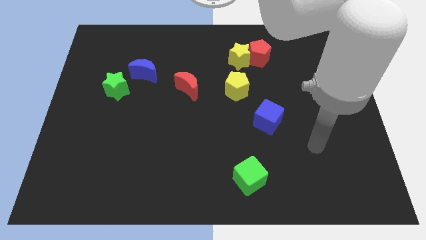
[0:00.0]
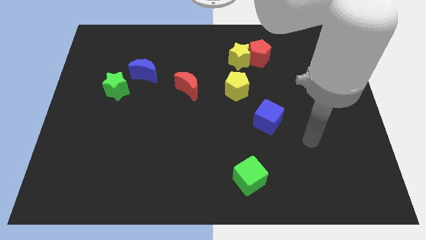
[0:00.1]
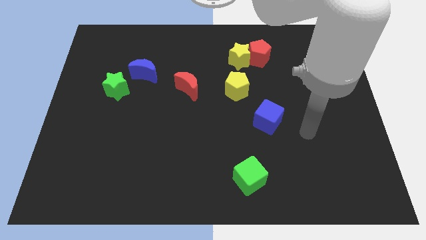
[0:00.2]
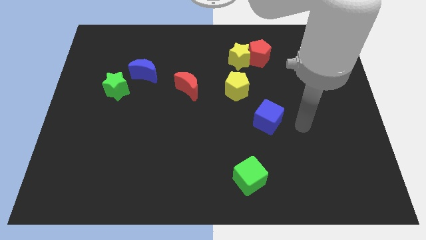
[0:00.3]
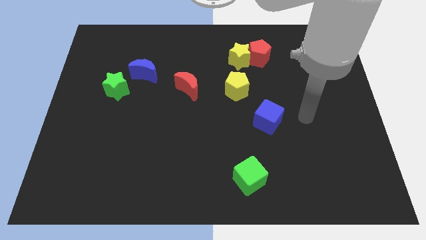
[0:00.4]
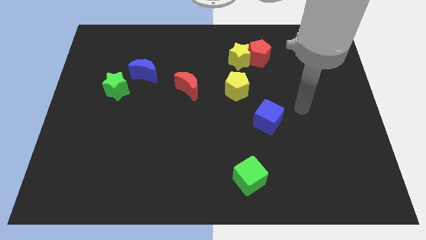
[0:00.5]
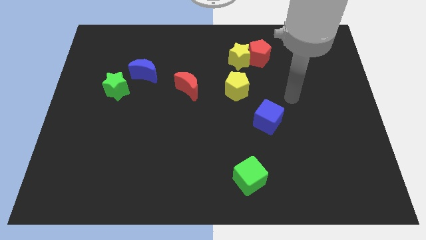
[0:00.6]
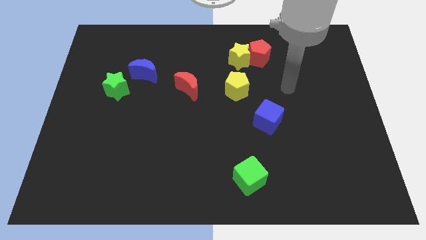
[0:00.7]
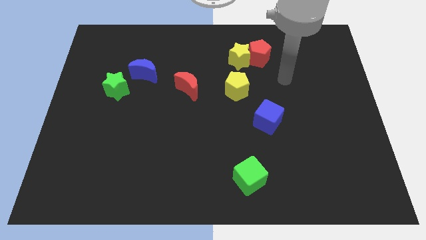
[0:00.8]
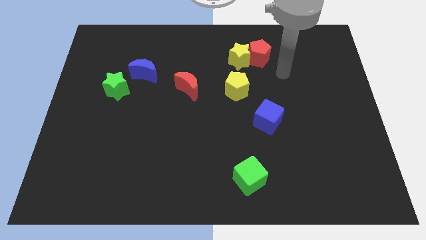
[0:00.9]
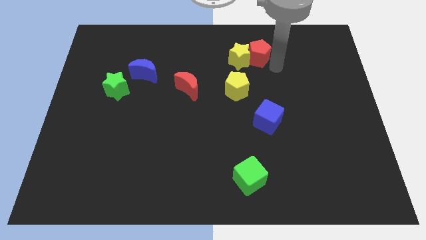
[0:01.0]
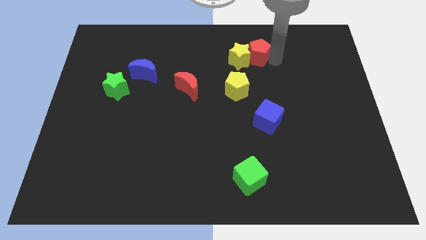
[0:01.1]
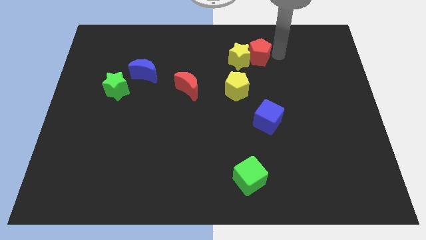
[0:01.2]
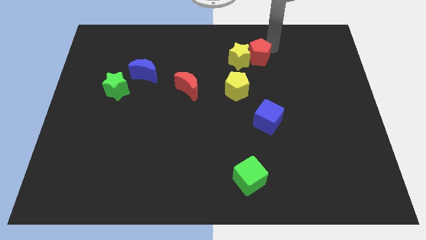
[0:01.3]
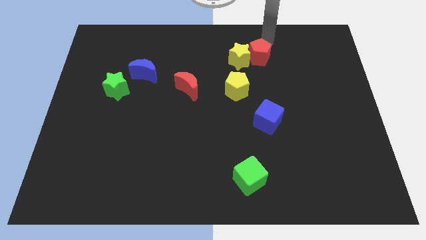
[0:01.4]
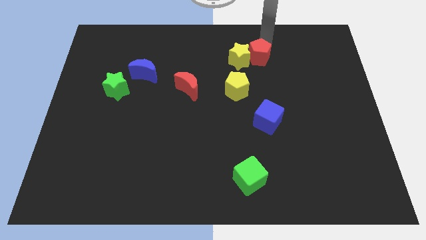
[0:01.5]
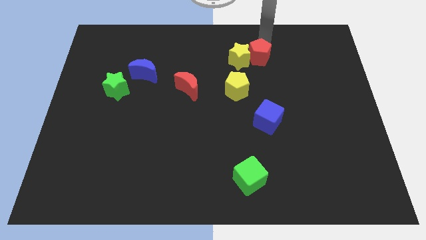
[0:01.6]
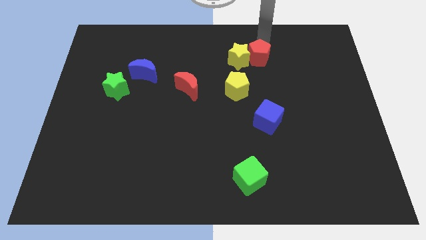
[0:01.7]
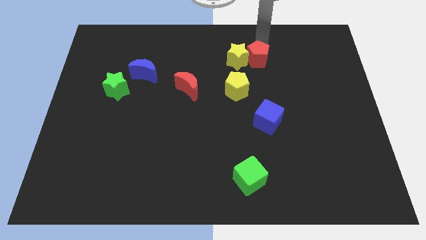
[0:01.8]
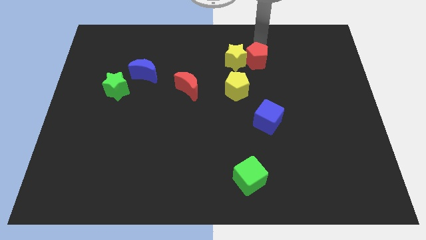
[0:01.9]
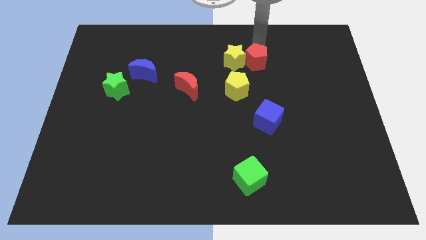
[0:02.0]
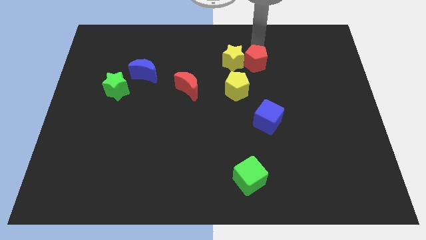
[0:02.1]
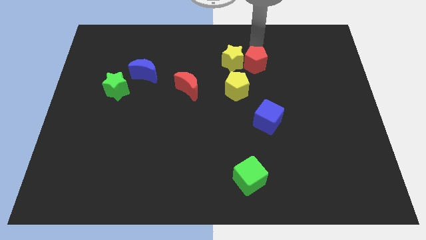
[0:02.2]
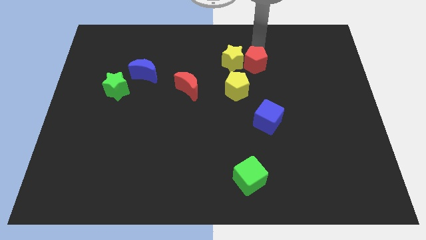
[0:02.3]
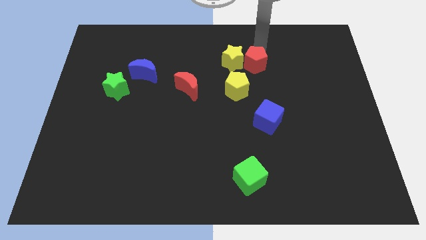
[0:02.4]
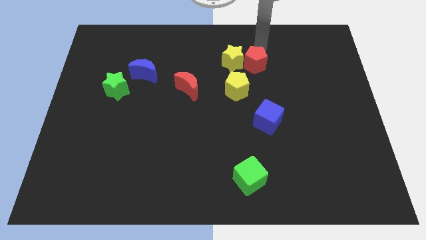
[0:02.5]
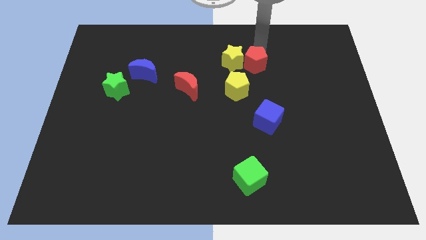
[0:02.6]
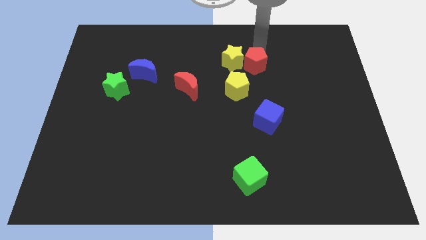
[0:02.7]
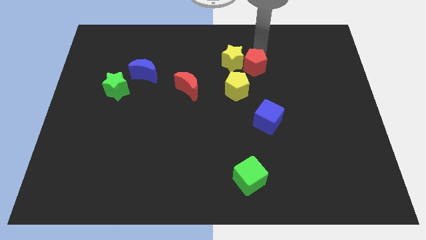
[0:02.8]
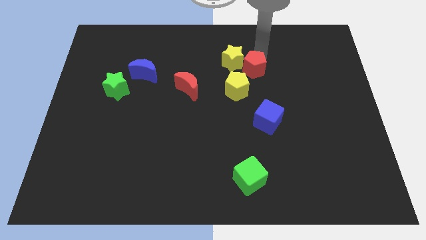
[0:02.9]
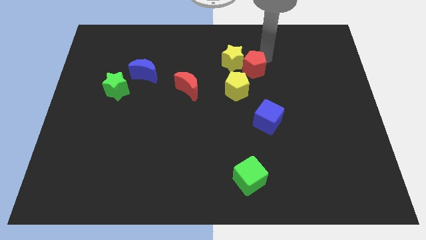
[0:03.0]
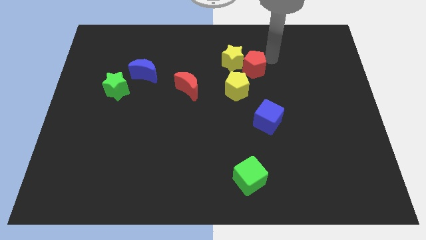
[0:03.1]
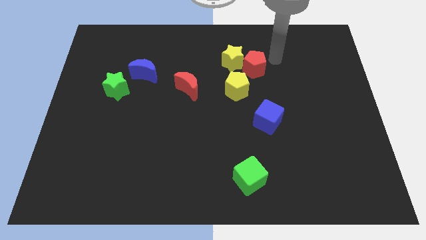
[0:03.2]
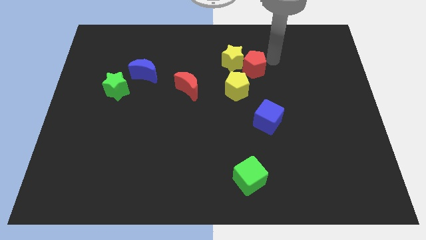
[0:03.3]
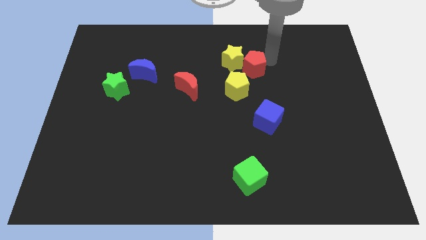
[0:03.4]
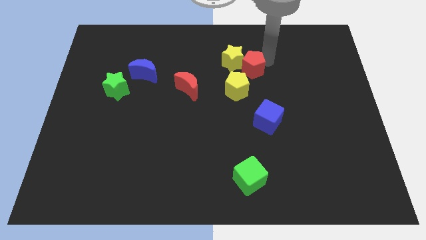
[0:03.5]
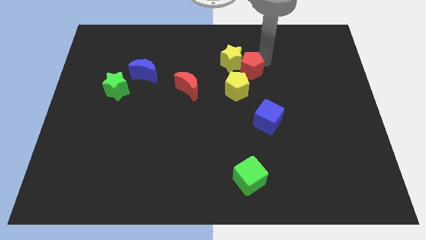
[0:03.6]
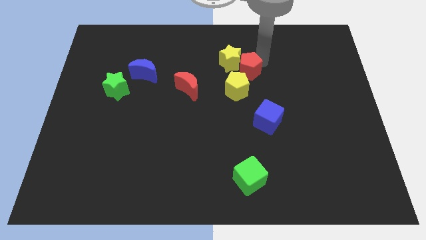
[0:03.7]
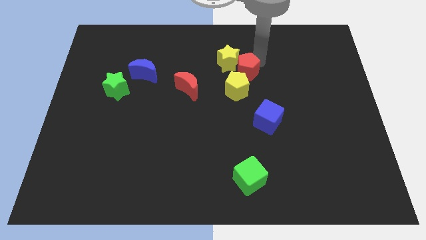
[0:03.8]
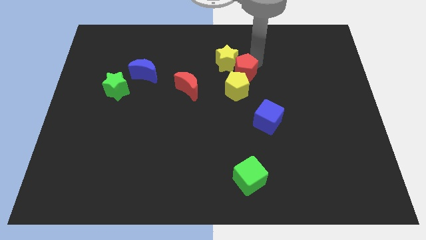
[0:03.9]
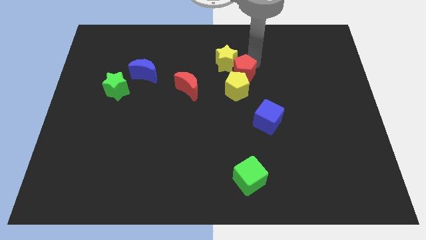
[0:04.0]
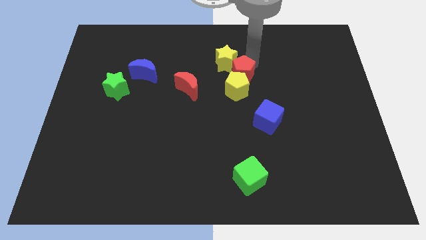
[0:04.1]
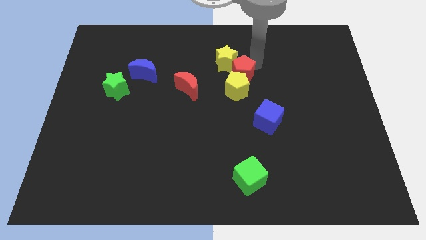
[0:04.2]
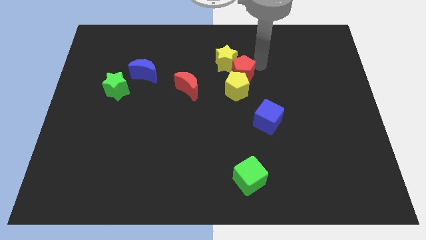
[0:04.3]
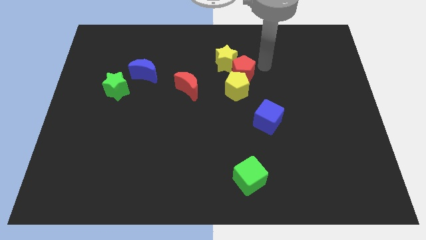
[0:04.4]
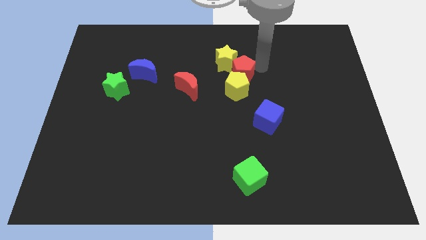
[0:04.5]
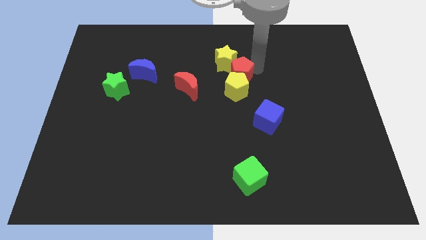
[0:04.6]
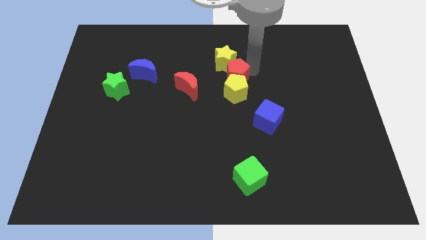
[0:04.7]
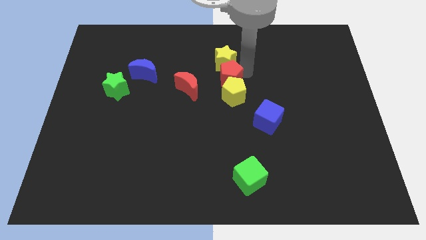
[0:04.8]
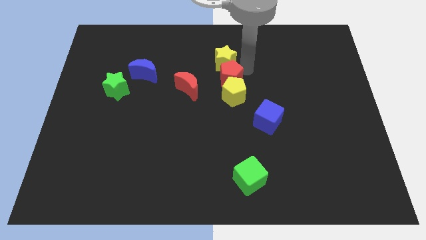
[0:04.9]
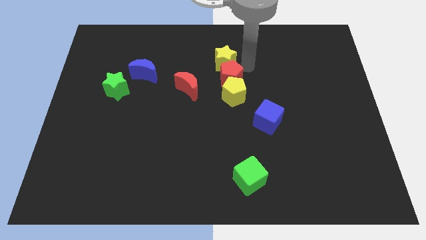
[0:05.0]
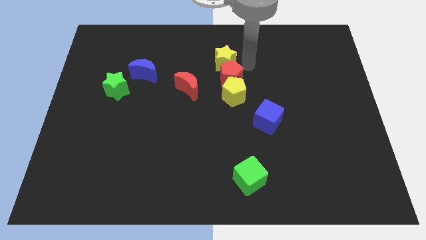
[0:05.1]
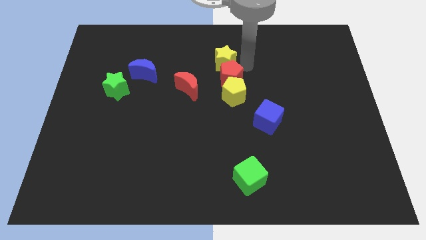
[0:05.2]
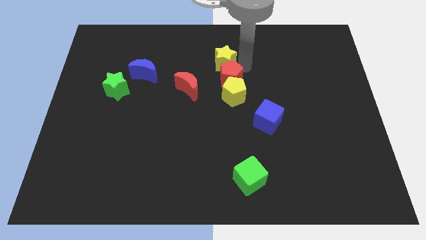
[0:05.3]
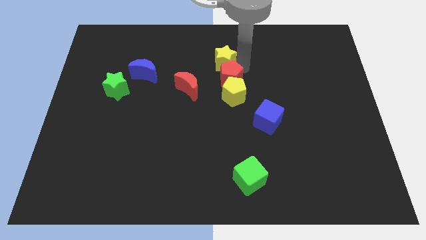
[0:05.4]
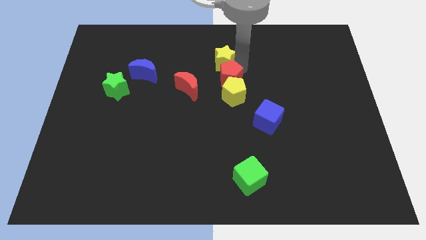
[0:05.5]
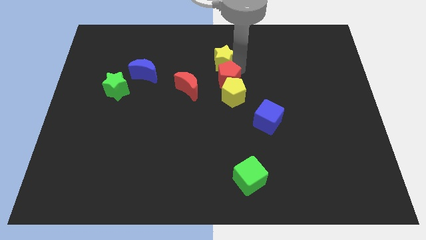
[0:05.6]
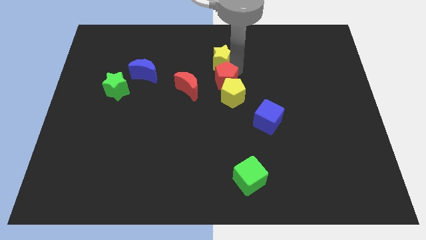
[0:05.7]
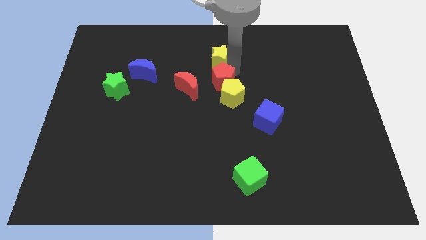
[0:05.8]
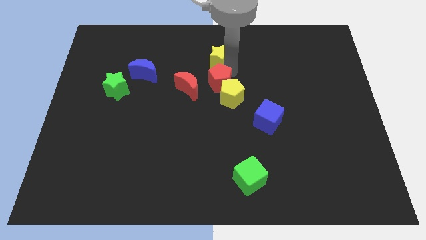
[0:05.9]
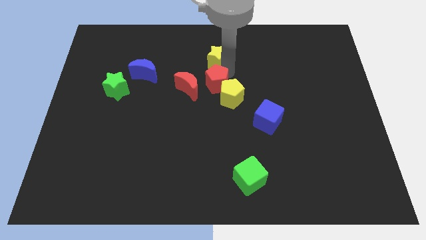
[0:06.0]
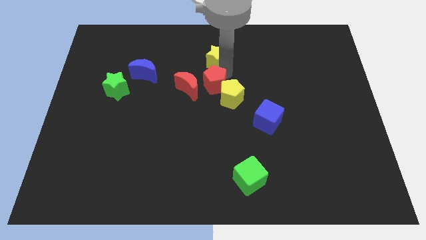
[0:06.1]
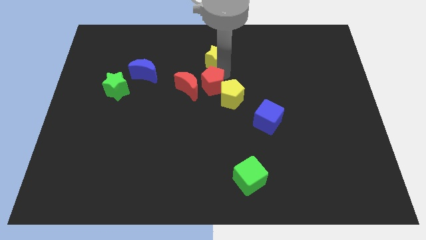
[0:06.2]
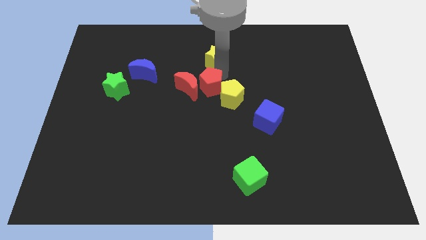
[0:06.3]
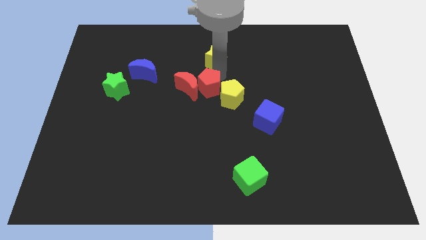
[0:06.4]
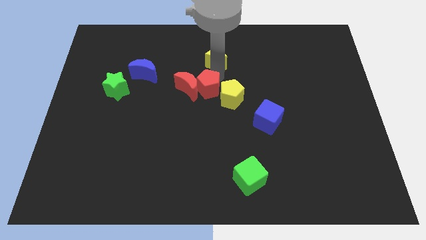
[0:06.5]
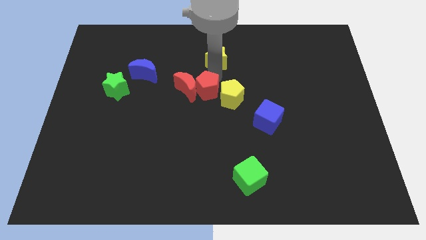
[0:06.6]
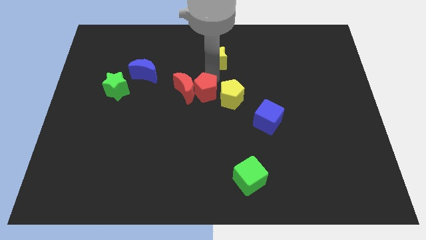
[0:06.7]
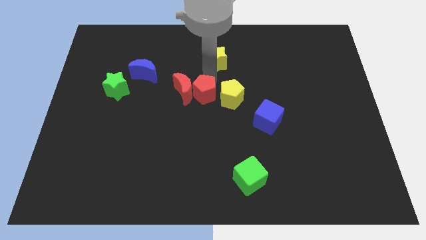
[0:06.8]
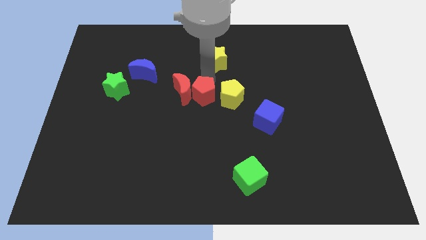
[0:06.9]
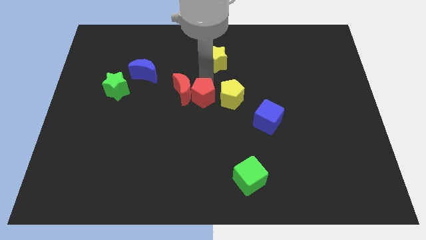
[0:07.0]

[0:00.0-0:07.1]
push the red pentagon down and then left

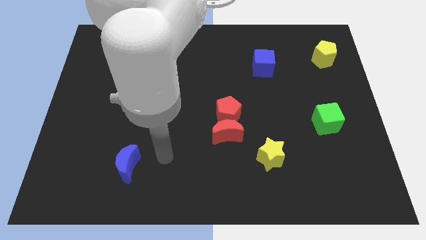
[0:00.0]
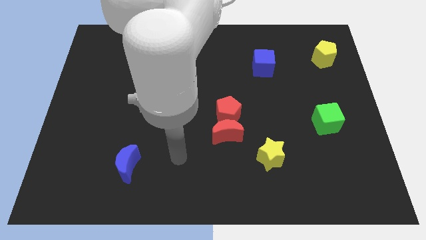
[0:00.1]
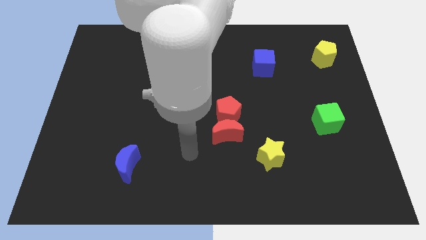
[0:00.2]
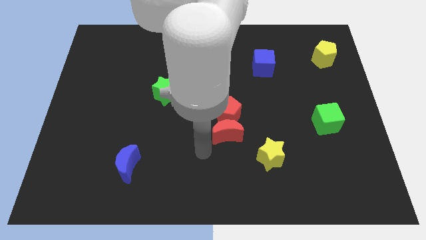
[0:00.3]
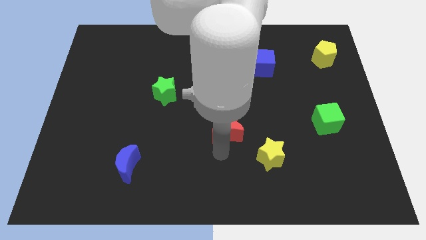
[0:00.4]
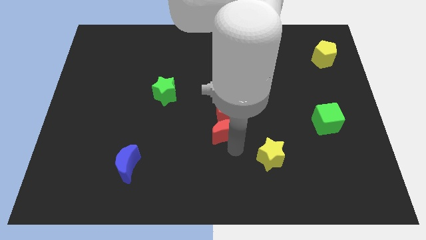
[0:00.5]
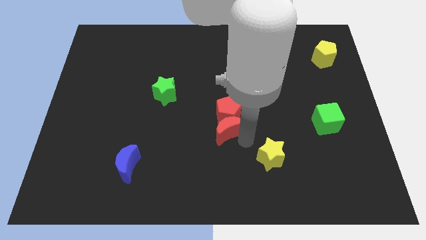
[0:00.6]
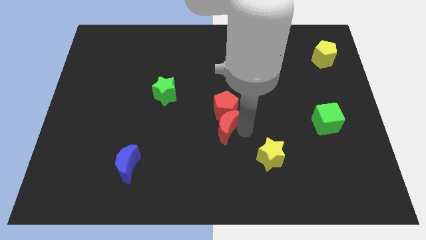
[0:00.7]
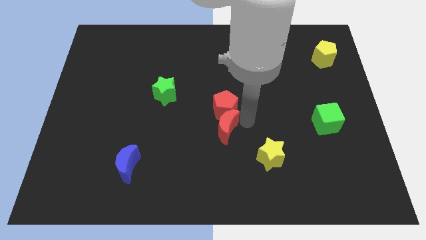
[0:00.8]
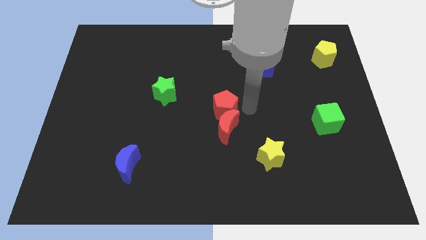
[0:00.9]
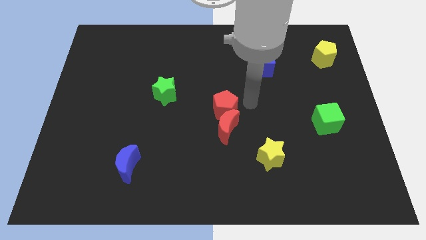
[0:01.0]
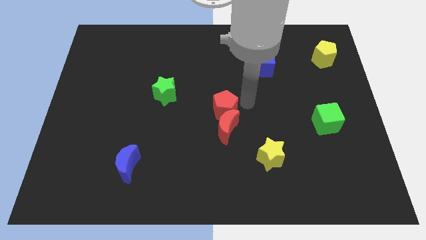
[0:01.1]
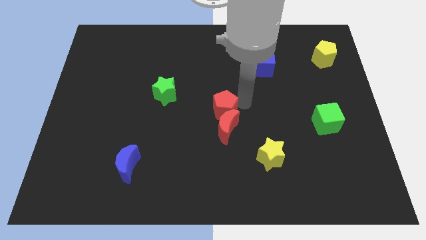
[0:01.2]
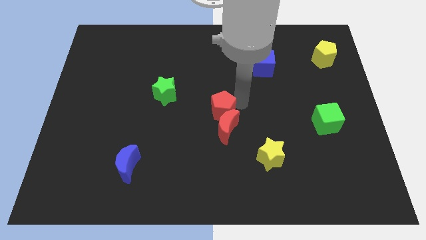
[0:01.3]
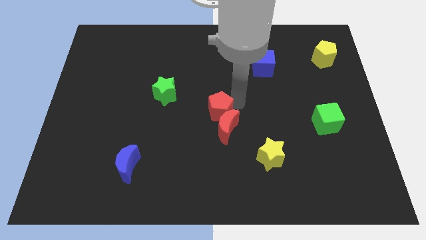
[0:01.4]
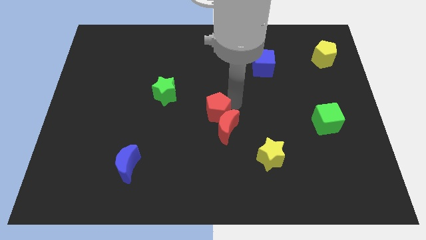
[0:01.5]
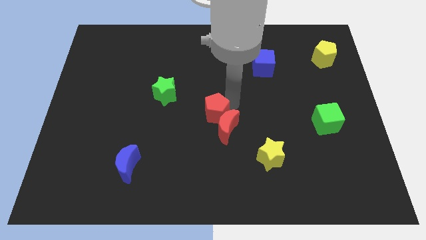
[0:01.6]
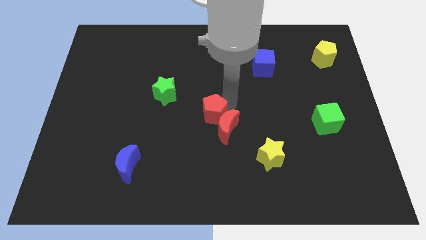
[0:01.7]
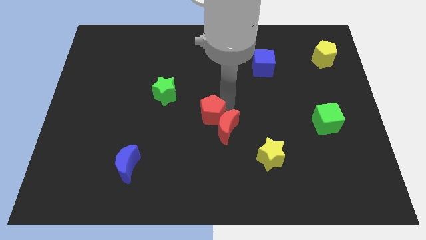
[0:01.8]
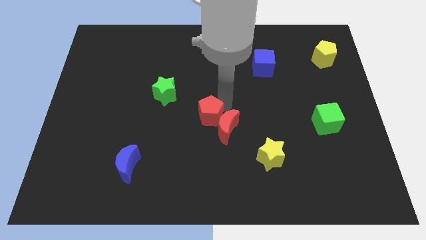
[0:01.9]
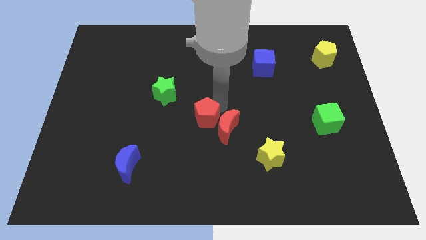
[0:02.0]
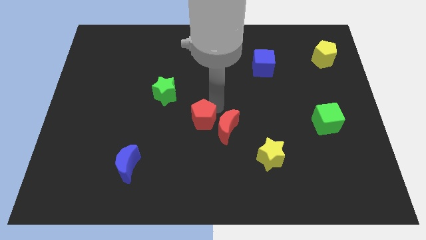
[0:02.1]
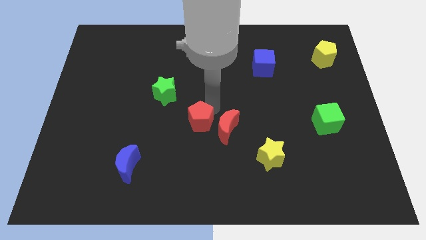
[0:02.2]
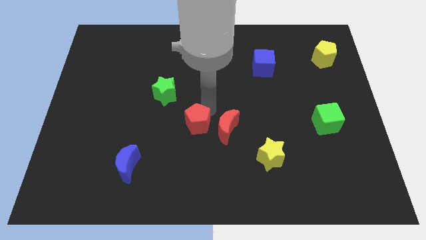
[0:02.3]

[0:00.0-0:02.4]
push the red pentagon to the left somewhat
